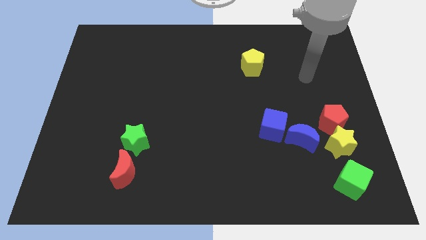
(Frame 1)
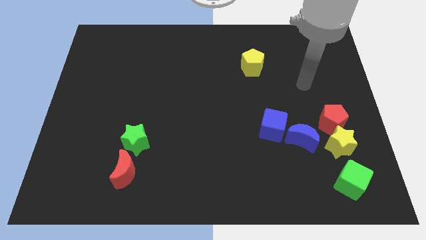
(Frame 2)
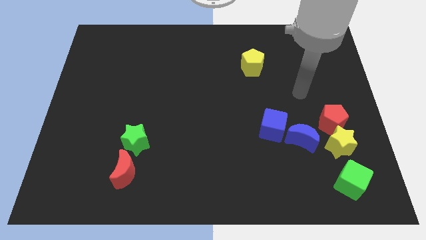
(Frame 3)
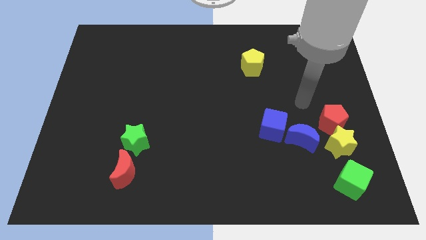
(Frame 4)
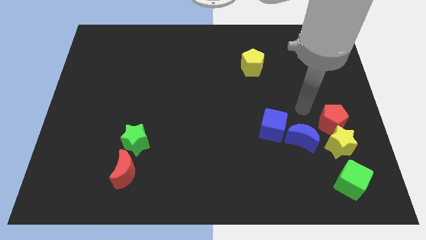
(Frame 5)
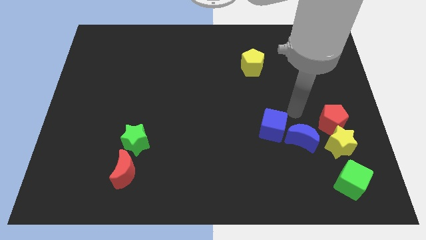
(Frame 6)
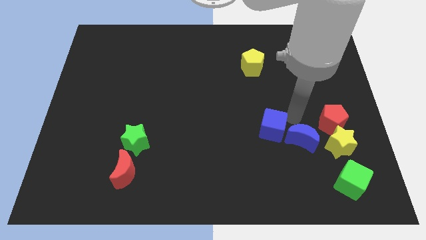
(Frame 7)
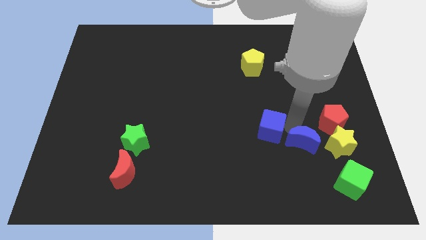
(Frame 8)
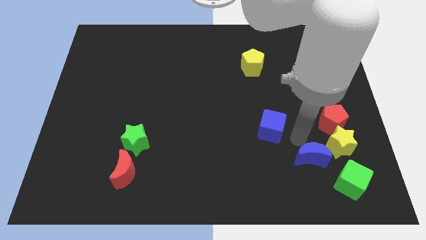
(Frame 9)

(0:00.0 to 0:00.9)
separate the blue cube from the blue moon

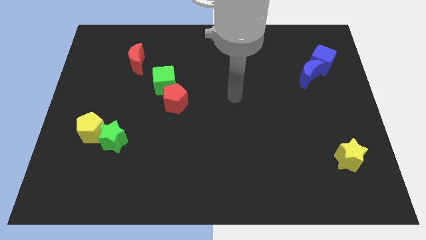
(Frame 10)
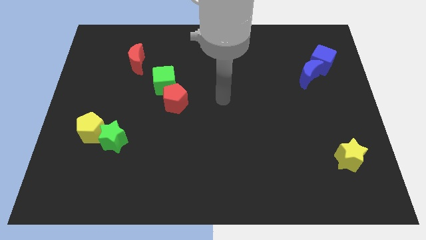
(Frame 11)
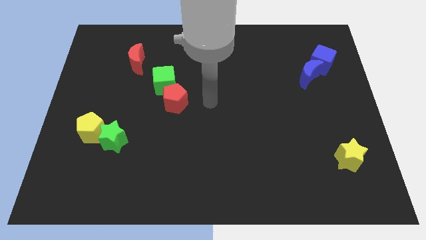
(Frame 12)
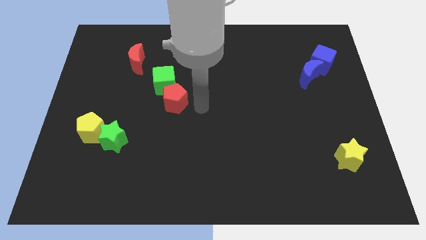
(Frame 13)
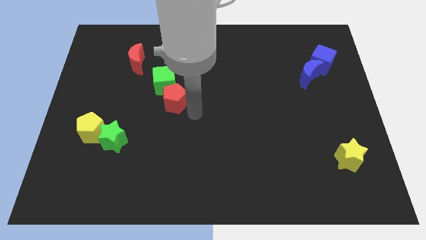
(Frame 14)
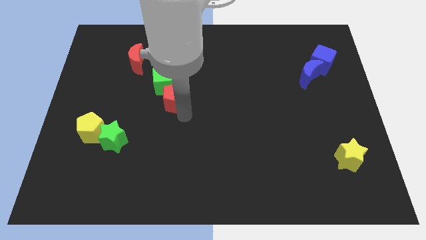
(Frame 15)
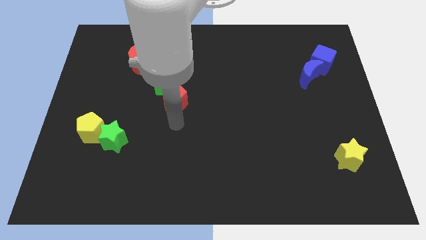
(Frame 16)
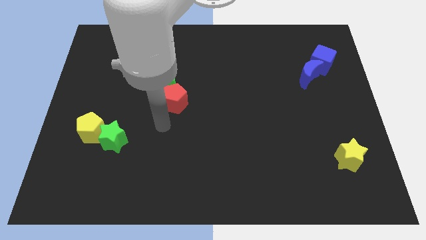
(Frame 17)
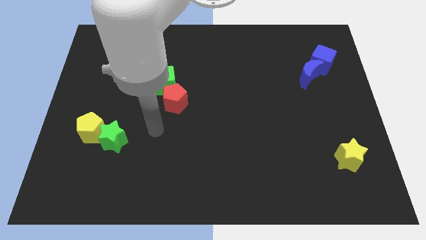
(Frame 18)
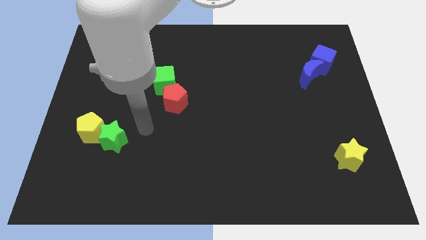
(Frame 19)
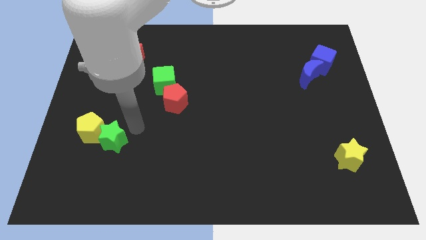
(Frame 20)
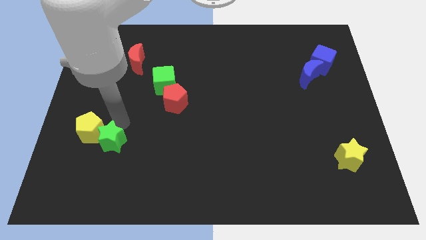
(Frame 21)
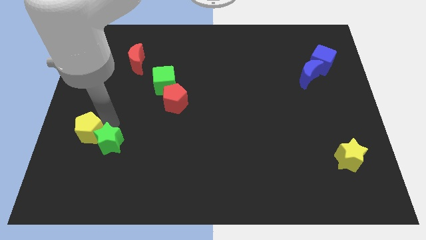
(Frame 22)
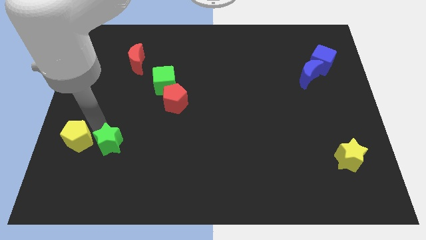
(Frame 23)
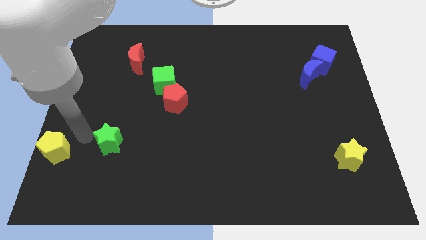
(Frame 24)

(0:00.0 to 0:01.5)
separate the green star from the yellow pentagon

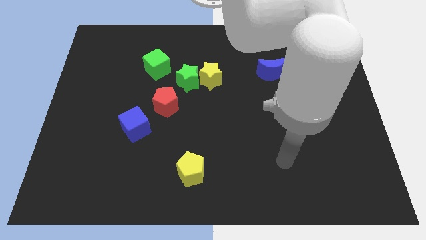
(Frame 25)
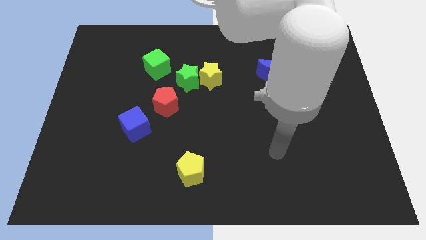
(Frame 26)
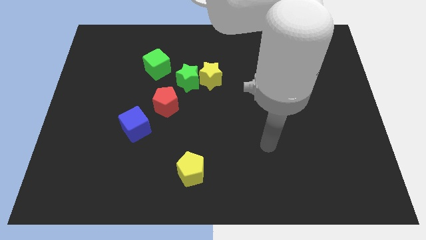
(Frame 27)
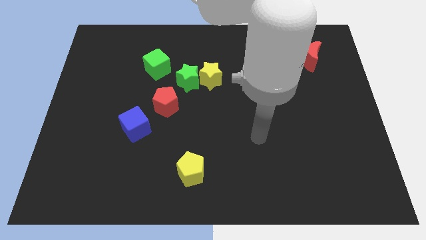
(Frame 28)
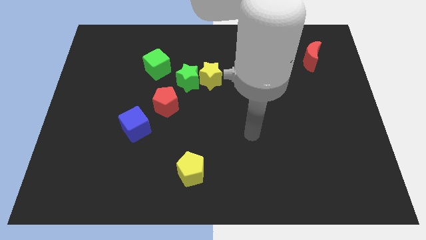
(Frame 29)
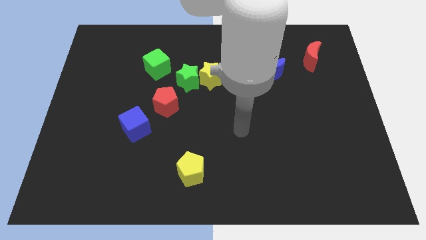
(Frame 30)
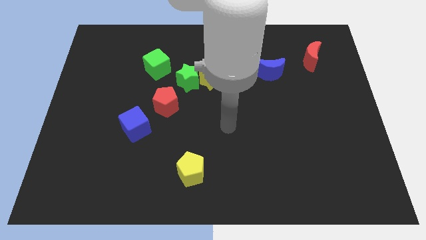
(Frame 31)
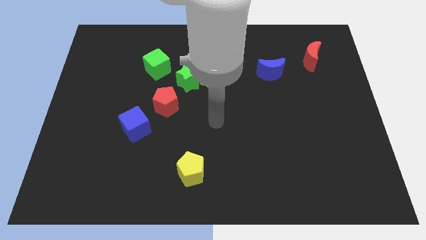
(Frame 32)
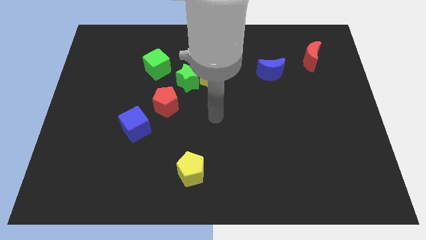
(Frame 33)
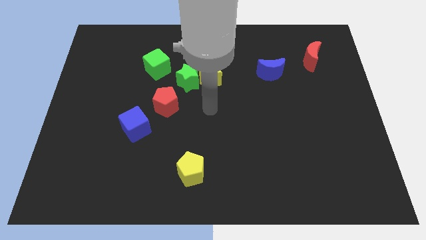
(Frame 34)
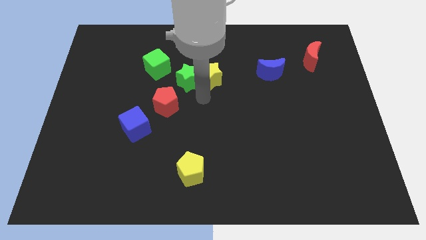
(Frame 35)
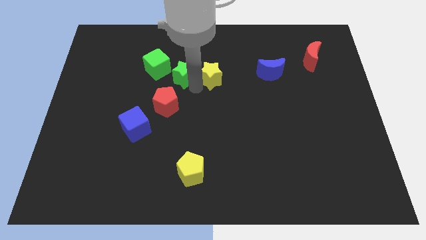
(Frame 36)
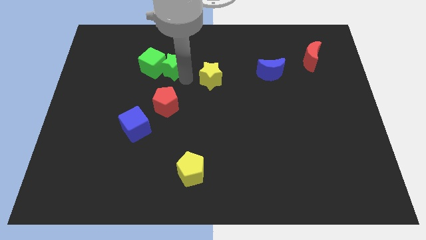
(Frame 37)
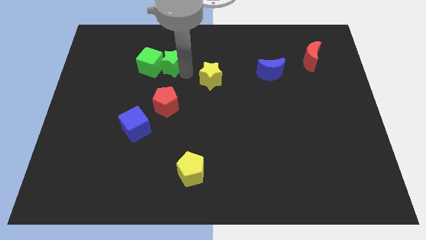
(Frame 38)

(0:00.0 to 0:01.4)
pull the yellow star apart from the green star

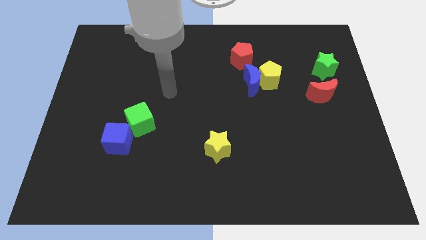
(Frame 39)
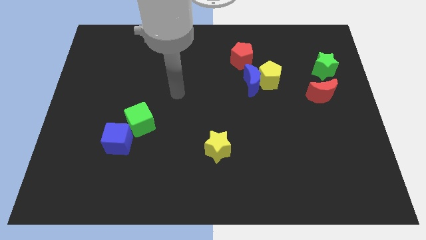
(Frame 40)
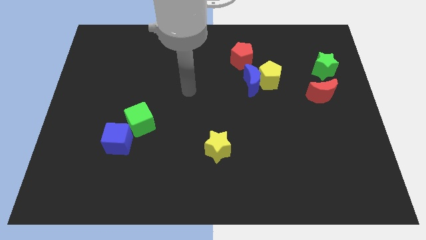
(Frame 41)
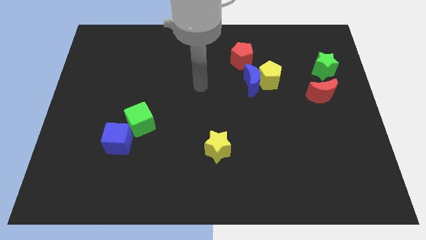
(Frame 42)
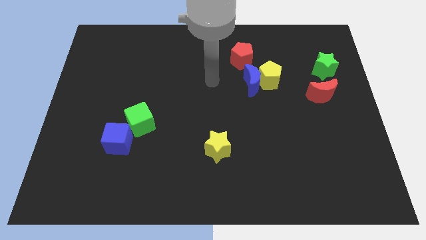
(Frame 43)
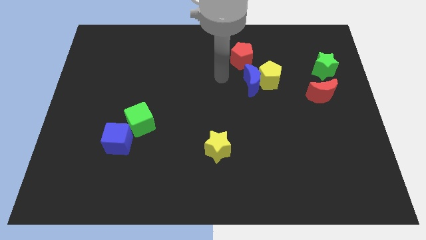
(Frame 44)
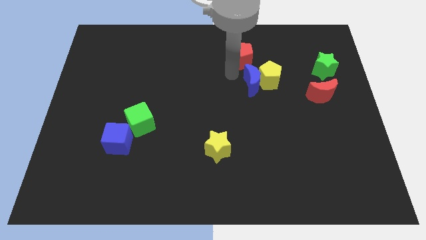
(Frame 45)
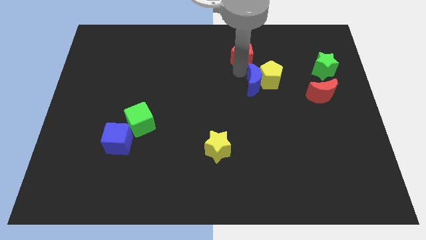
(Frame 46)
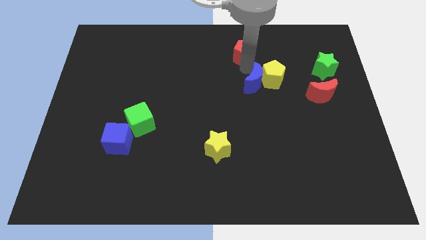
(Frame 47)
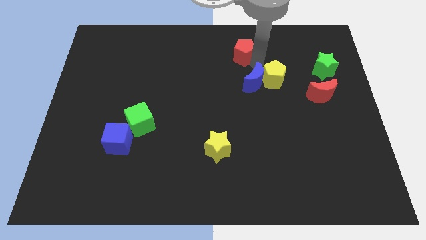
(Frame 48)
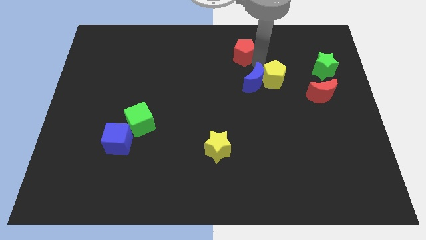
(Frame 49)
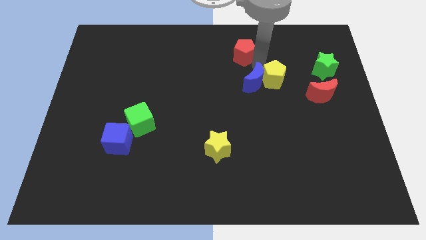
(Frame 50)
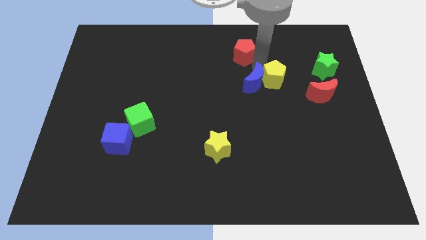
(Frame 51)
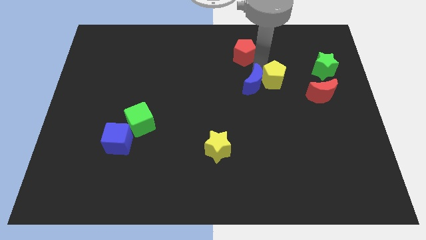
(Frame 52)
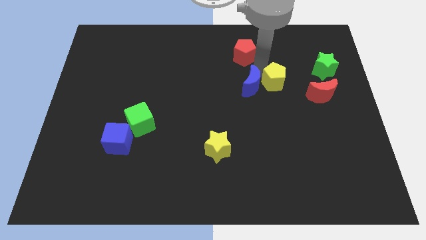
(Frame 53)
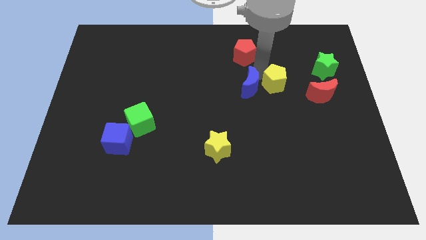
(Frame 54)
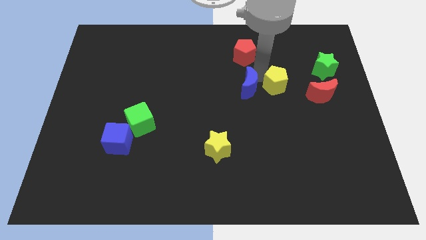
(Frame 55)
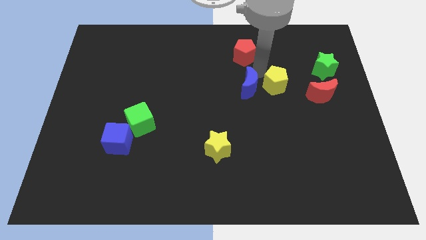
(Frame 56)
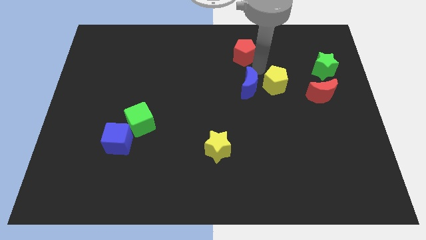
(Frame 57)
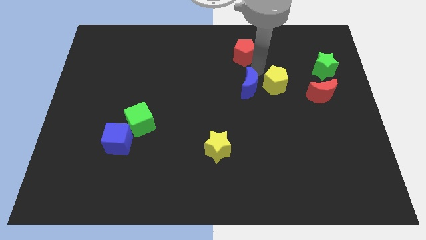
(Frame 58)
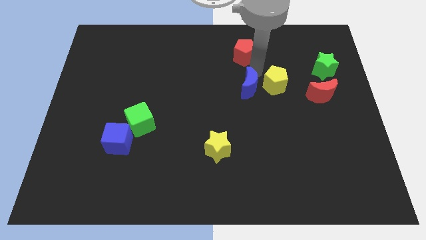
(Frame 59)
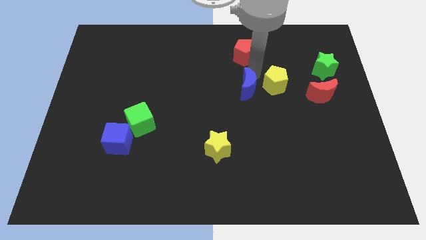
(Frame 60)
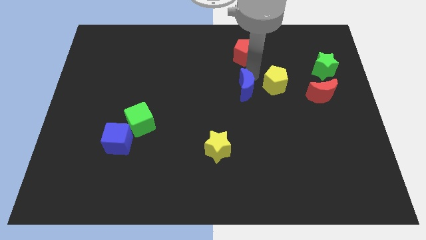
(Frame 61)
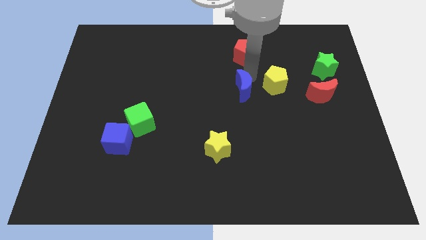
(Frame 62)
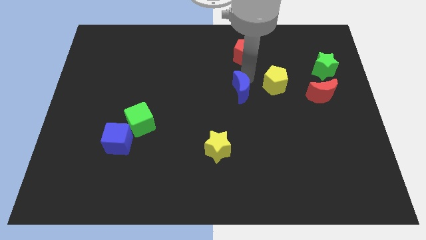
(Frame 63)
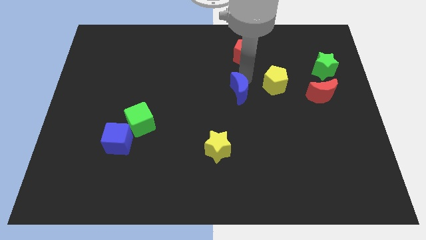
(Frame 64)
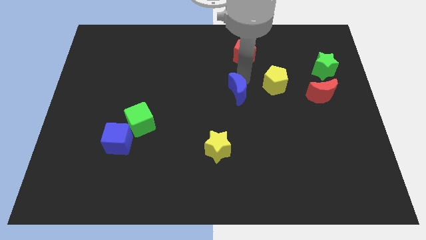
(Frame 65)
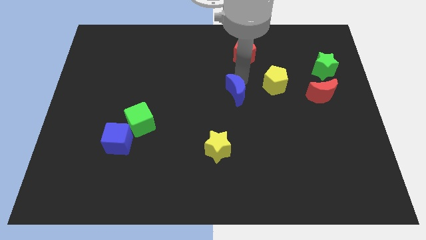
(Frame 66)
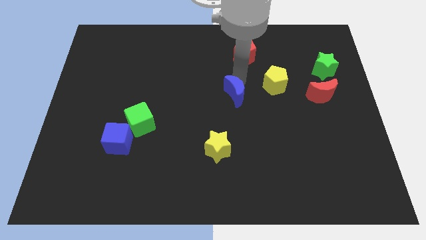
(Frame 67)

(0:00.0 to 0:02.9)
separate the blue moon from the yellow pentagon and red pentagon

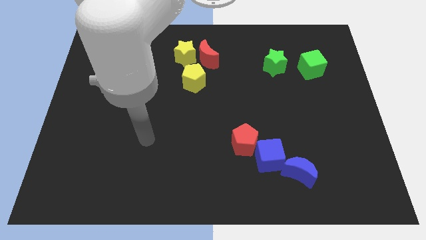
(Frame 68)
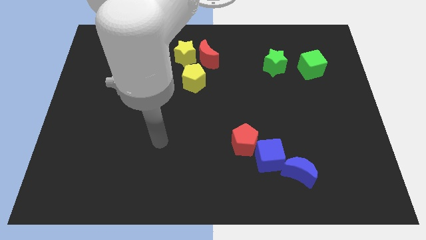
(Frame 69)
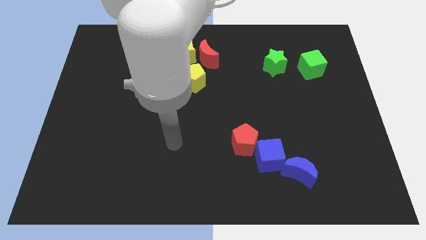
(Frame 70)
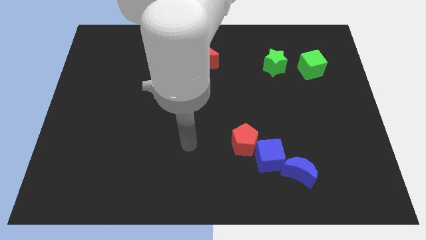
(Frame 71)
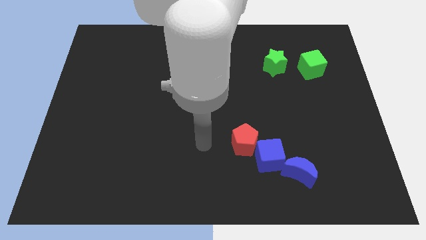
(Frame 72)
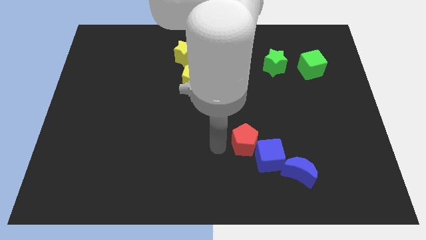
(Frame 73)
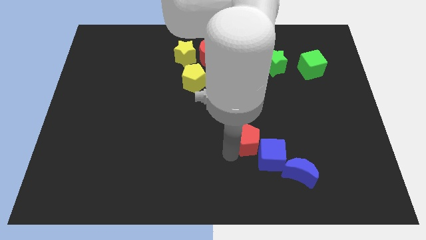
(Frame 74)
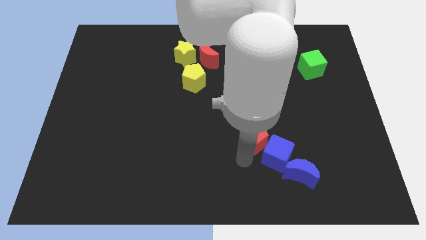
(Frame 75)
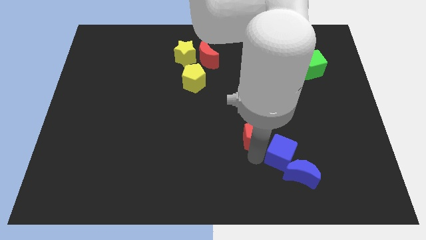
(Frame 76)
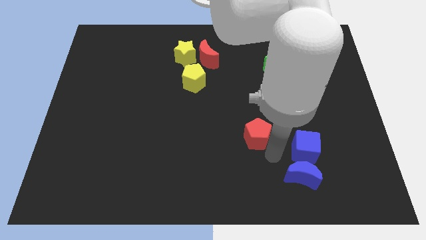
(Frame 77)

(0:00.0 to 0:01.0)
pull the red pentagon apart from the blue cube

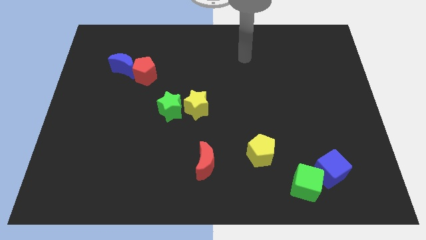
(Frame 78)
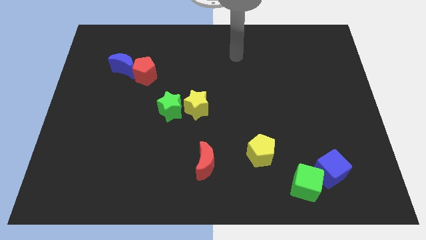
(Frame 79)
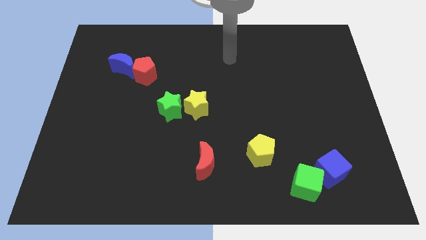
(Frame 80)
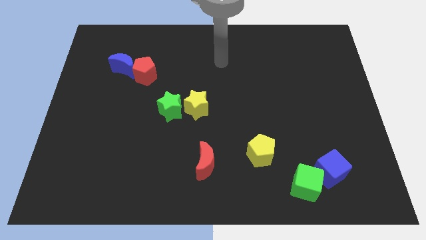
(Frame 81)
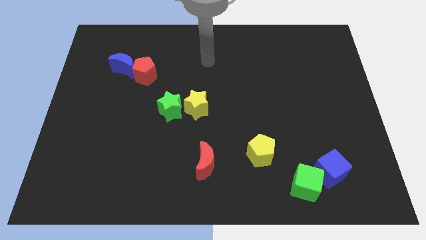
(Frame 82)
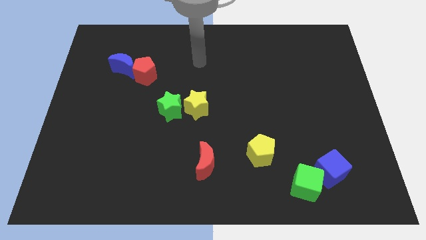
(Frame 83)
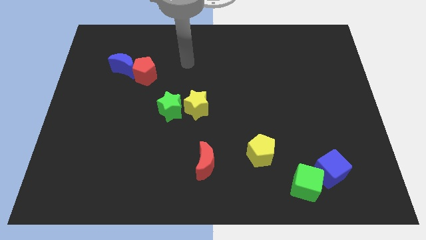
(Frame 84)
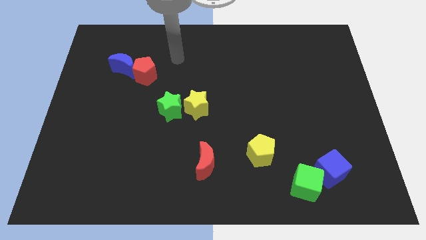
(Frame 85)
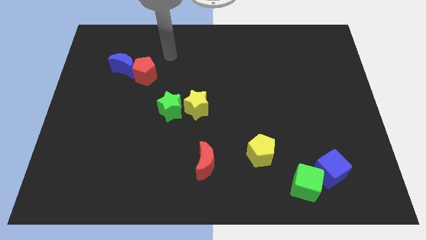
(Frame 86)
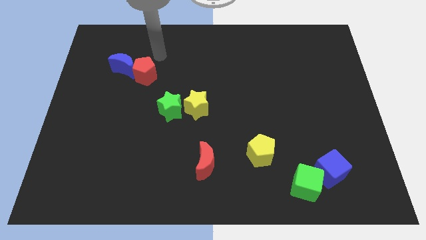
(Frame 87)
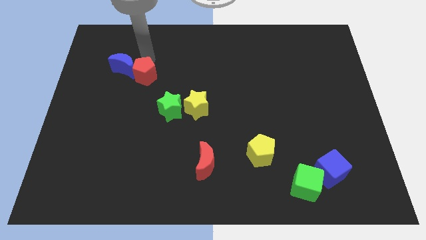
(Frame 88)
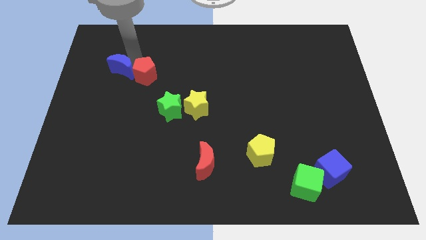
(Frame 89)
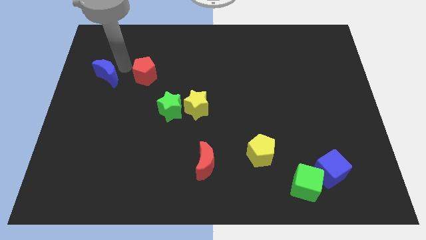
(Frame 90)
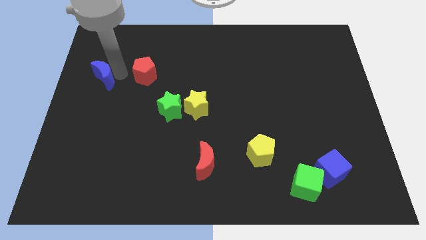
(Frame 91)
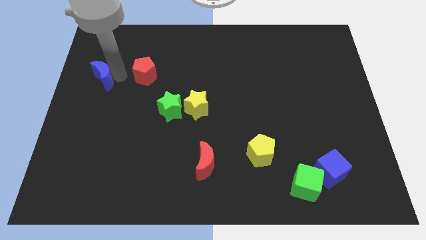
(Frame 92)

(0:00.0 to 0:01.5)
pull the red pentagon apart from the blue moon
